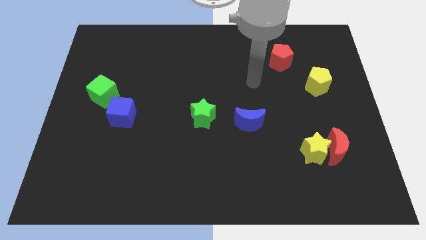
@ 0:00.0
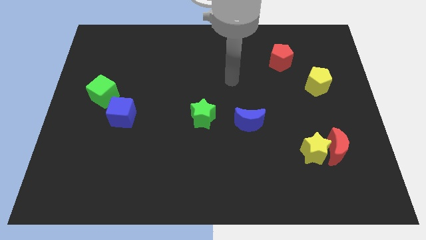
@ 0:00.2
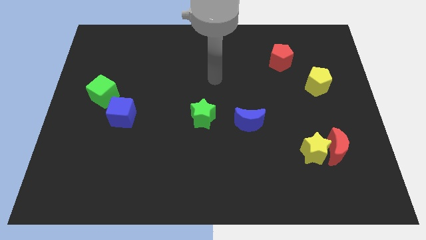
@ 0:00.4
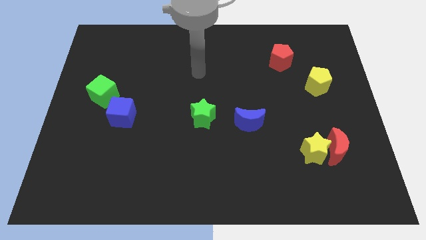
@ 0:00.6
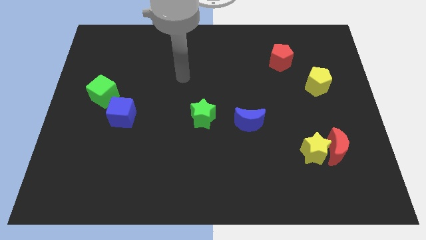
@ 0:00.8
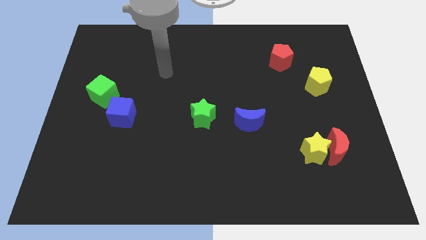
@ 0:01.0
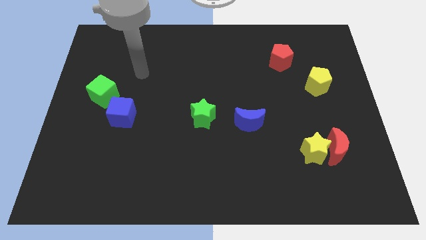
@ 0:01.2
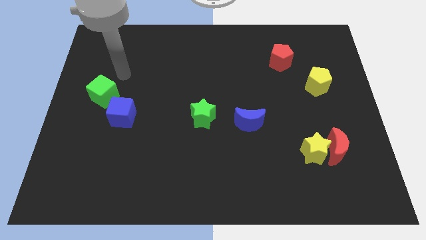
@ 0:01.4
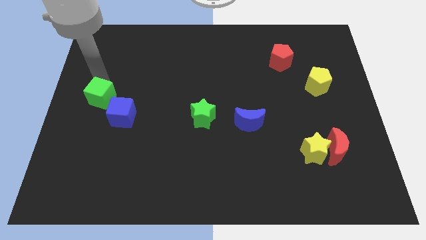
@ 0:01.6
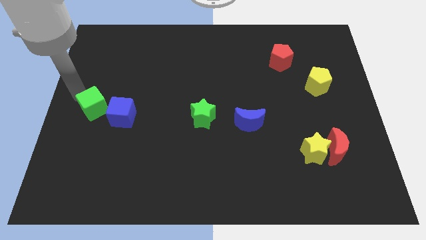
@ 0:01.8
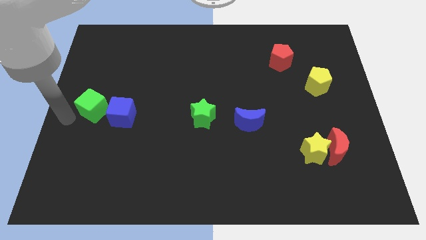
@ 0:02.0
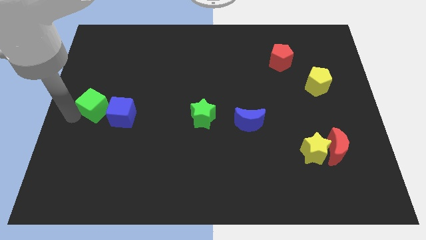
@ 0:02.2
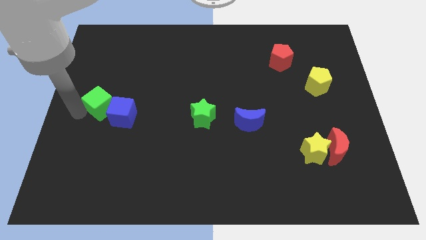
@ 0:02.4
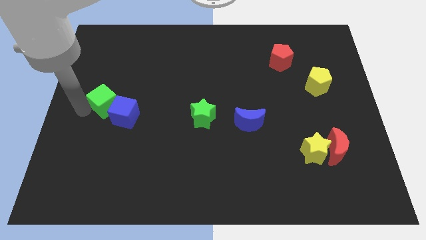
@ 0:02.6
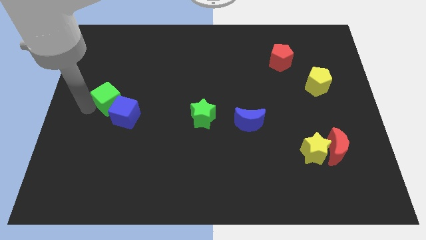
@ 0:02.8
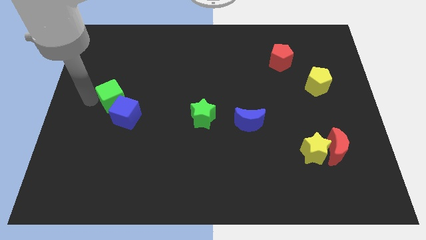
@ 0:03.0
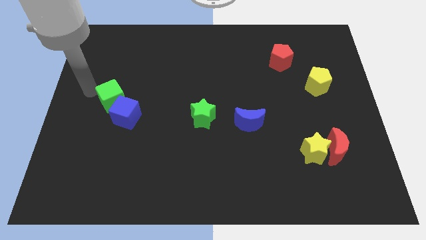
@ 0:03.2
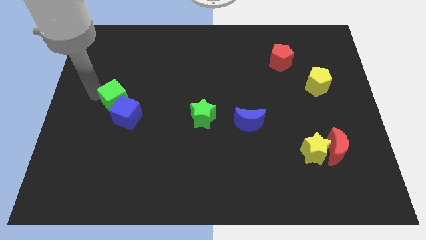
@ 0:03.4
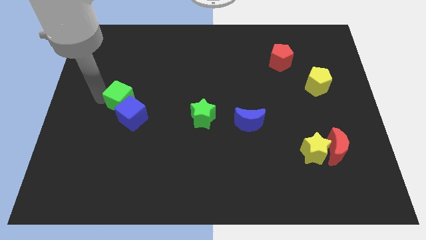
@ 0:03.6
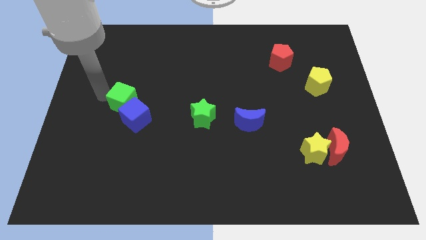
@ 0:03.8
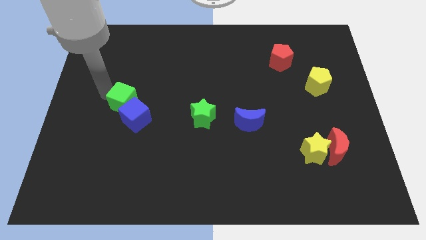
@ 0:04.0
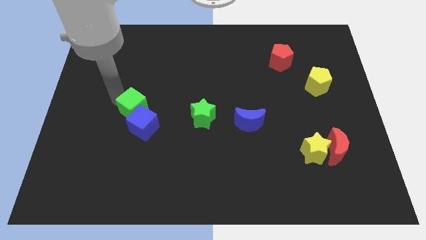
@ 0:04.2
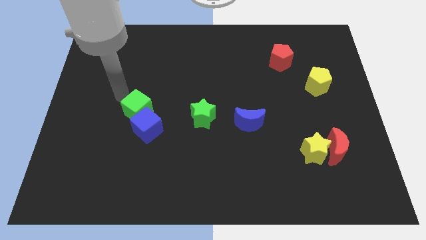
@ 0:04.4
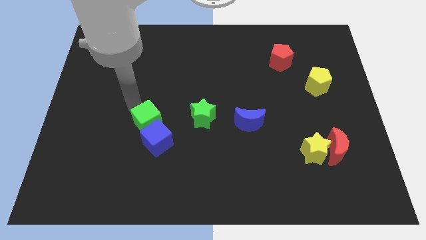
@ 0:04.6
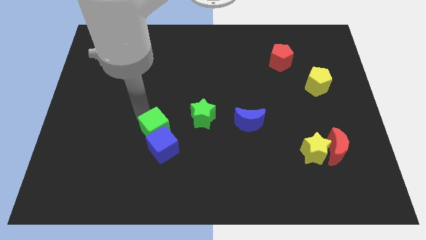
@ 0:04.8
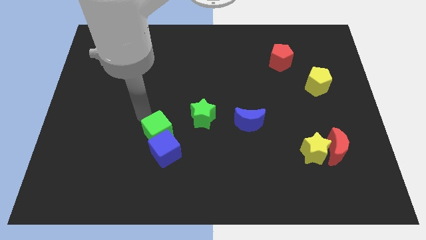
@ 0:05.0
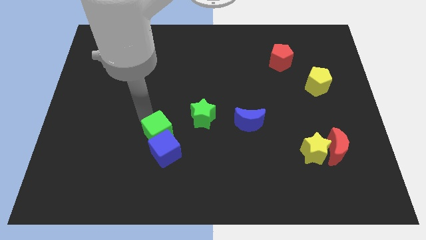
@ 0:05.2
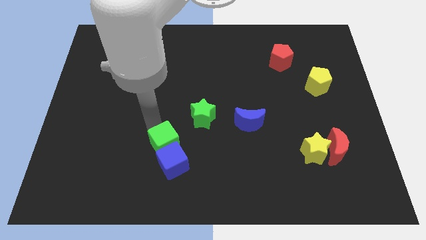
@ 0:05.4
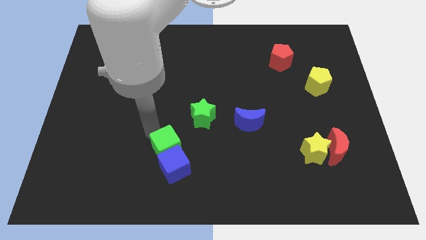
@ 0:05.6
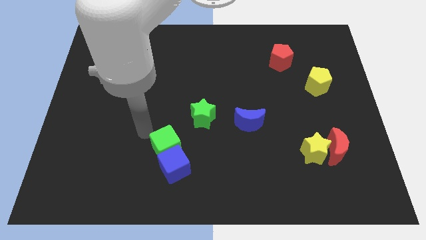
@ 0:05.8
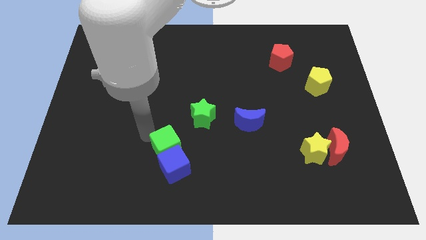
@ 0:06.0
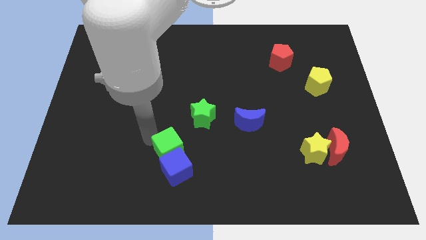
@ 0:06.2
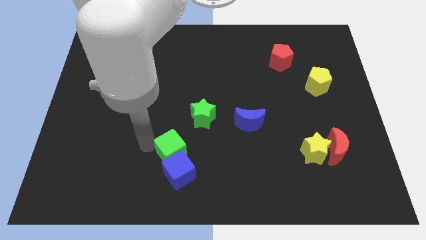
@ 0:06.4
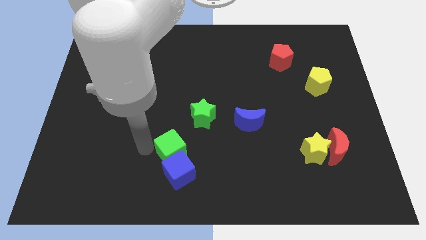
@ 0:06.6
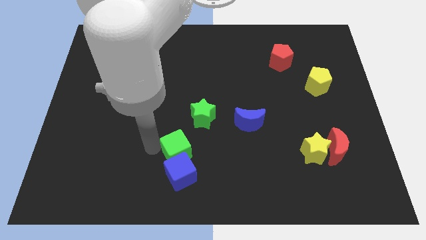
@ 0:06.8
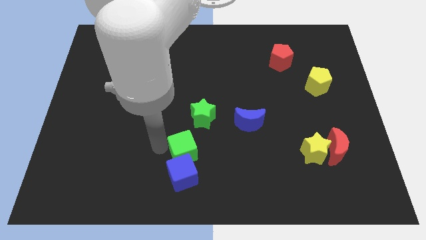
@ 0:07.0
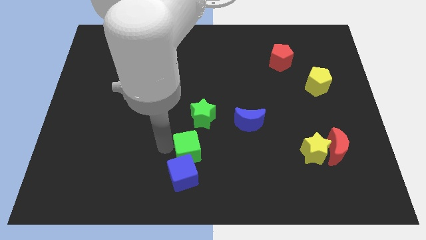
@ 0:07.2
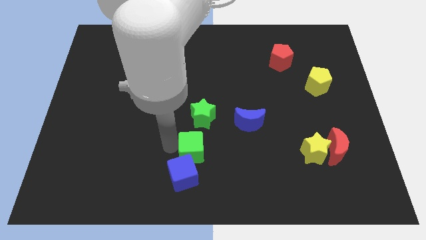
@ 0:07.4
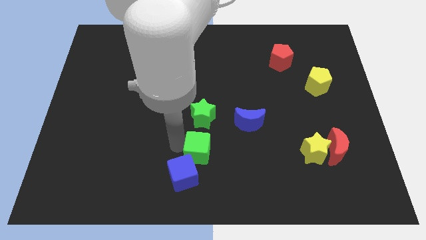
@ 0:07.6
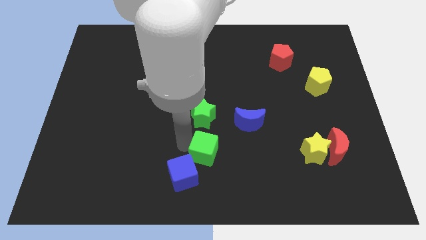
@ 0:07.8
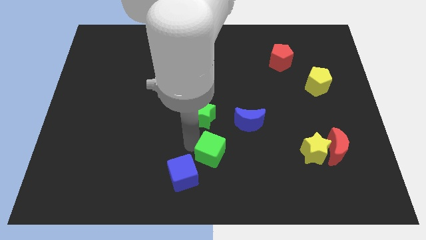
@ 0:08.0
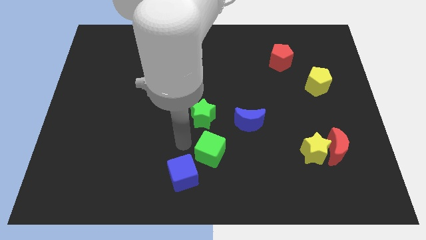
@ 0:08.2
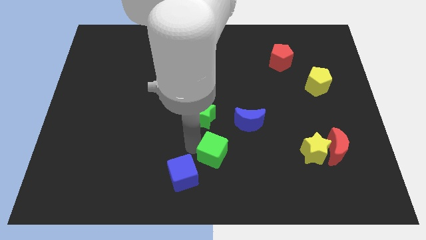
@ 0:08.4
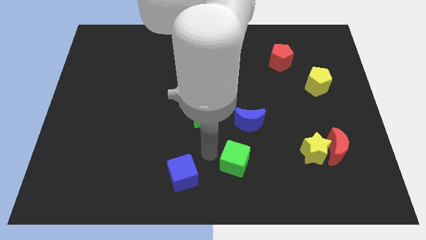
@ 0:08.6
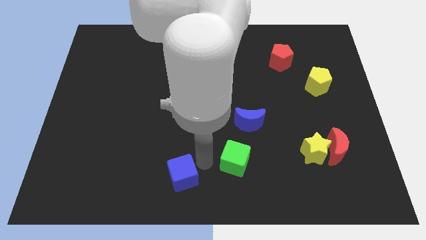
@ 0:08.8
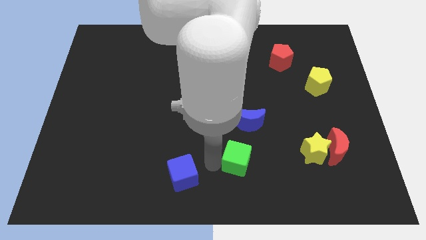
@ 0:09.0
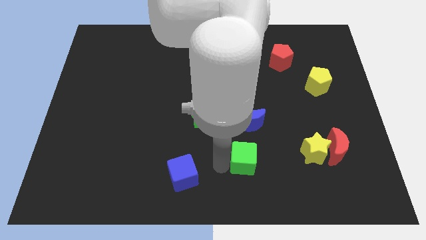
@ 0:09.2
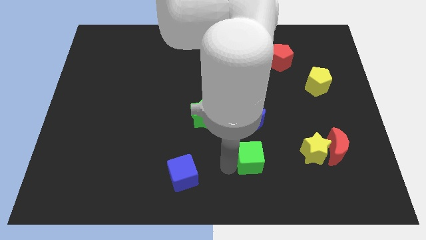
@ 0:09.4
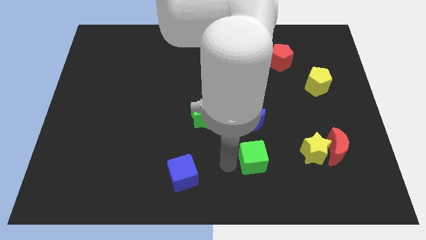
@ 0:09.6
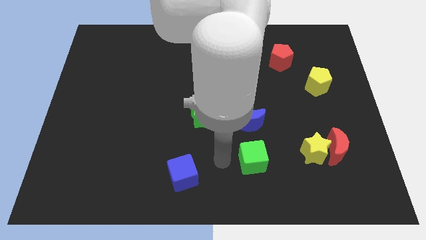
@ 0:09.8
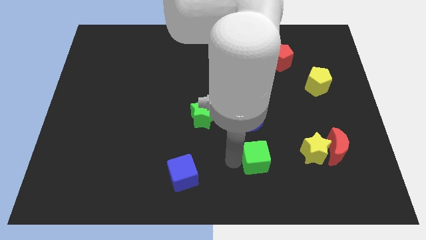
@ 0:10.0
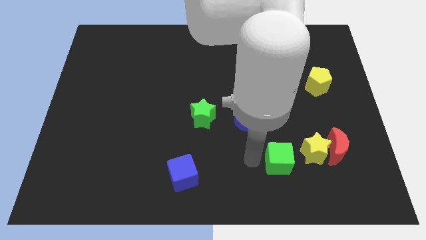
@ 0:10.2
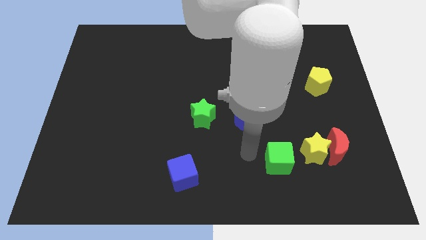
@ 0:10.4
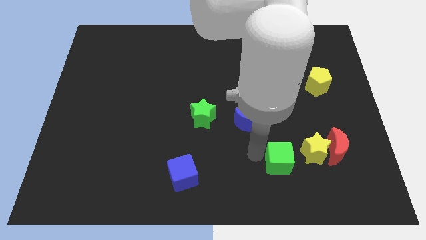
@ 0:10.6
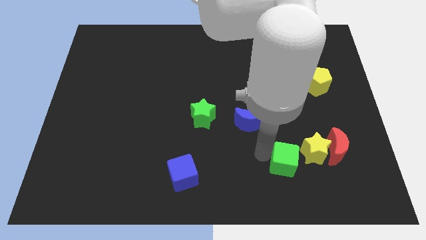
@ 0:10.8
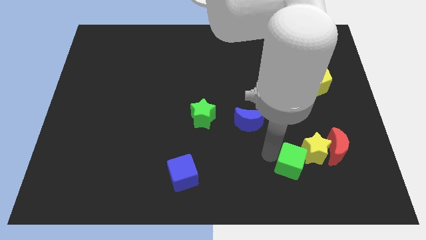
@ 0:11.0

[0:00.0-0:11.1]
put the green cube next to the yellow star

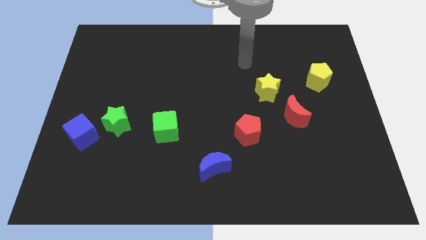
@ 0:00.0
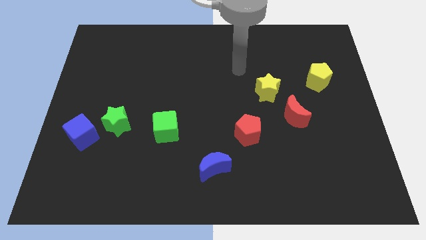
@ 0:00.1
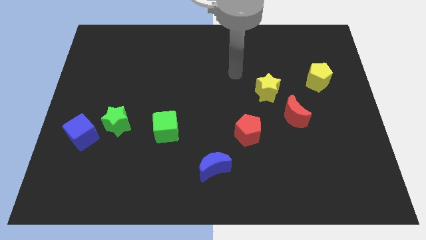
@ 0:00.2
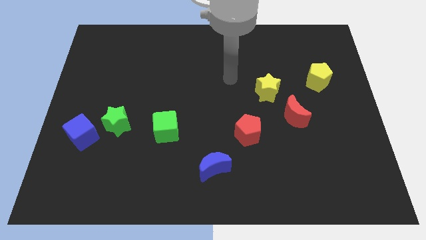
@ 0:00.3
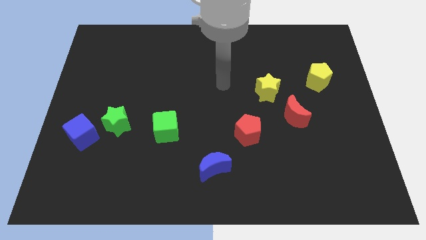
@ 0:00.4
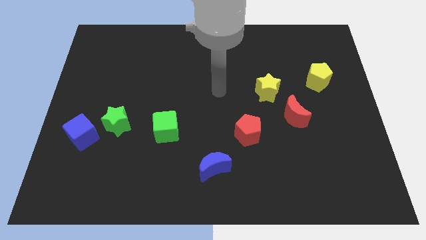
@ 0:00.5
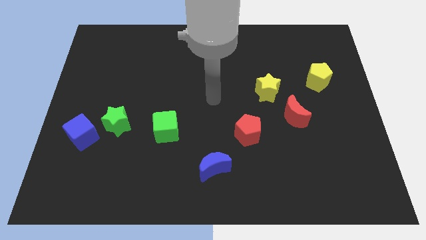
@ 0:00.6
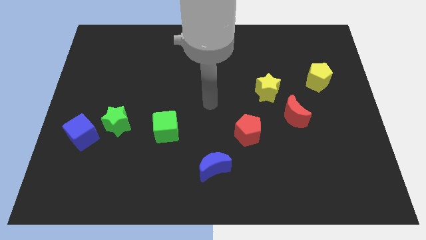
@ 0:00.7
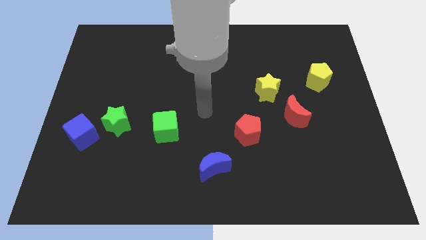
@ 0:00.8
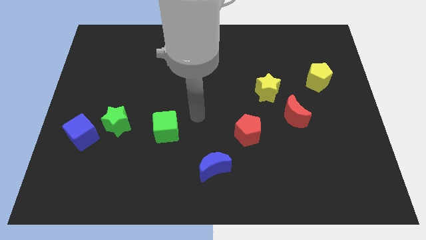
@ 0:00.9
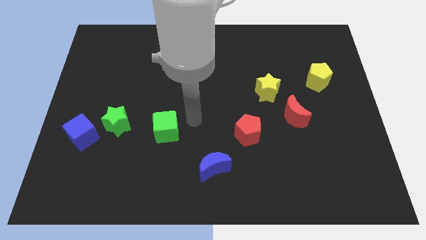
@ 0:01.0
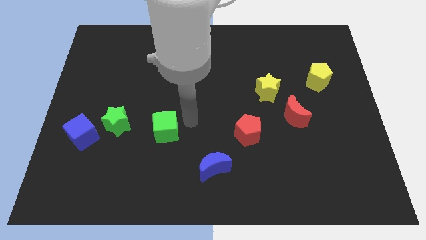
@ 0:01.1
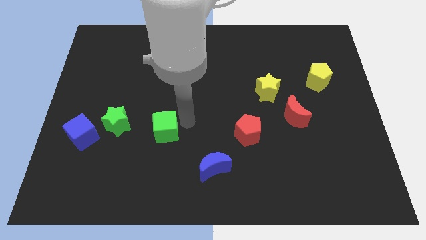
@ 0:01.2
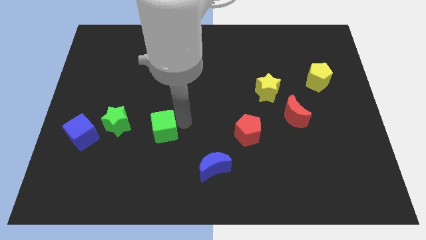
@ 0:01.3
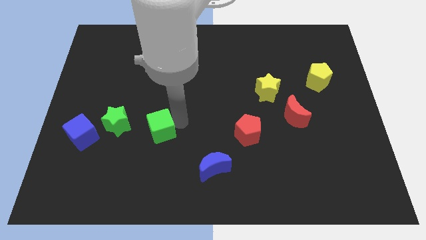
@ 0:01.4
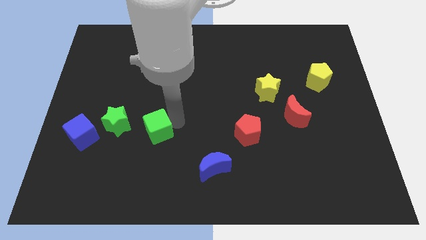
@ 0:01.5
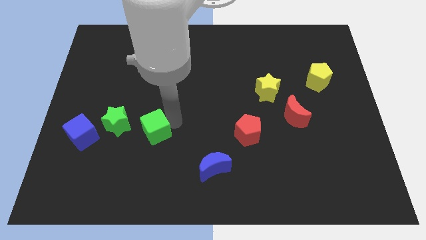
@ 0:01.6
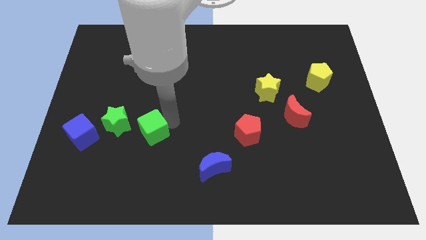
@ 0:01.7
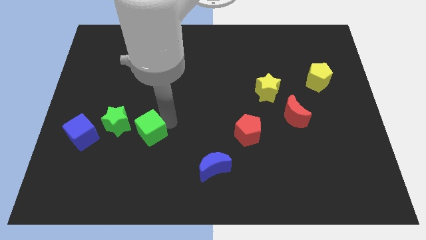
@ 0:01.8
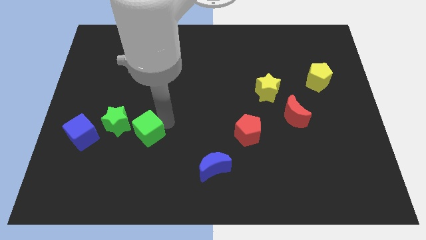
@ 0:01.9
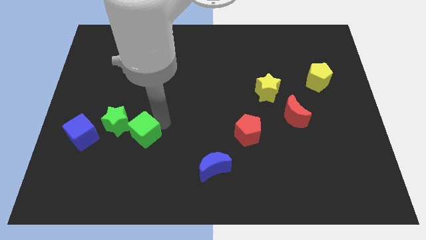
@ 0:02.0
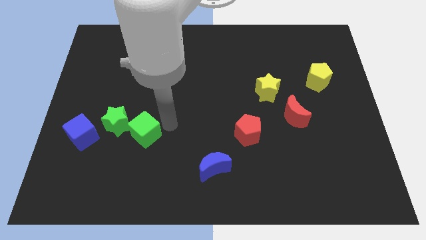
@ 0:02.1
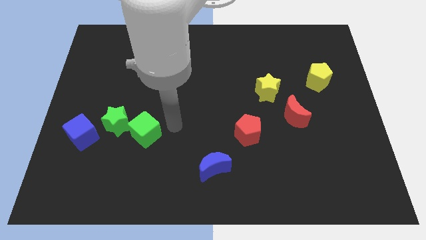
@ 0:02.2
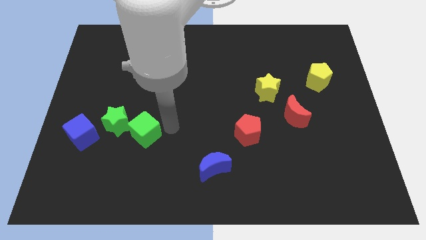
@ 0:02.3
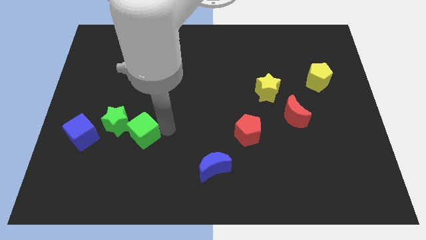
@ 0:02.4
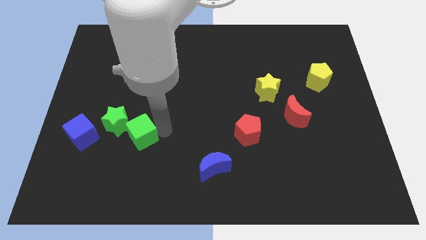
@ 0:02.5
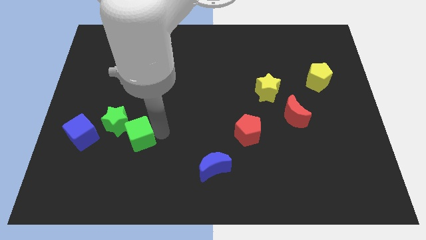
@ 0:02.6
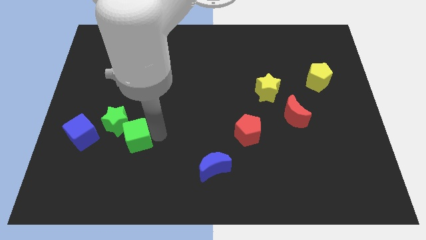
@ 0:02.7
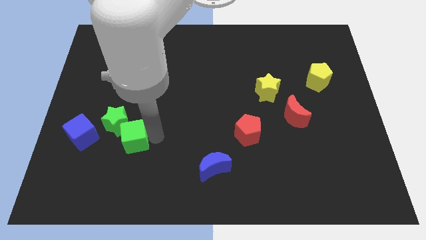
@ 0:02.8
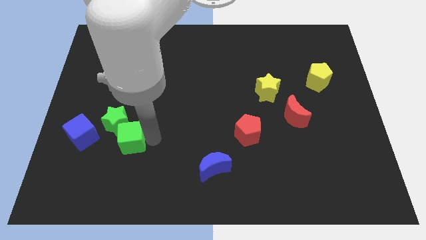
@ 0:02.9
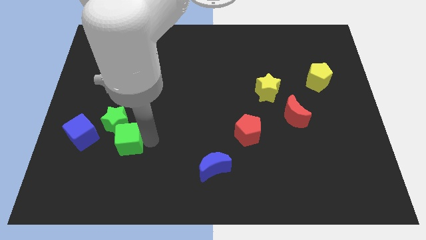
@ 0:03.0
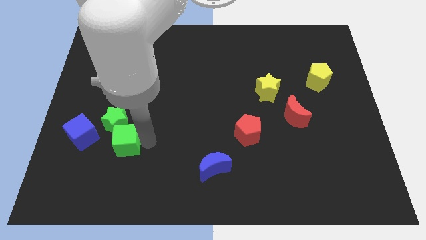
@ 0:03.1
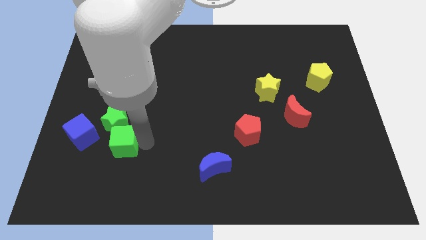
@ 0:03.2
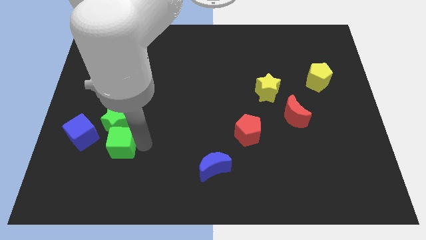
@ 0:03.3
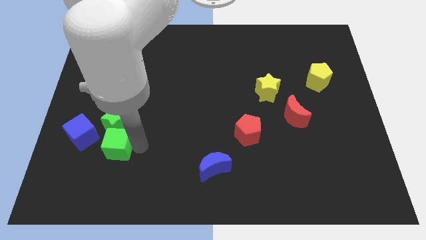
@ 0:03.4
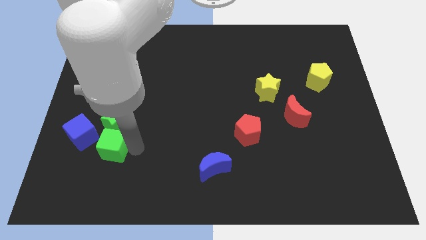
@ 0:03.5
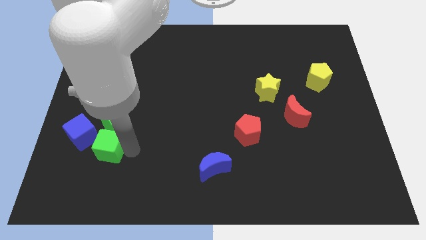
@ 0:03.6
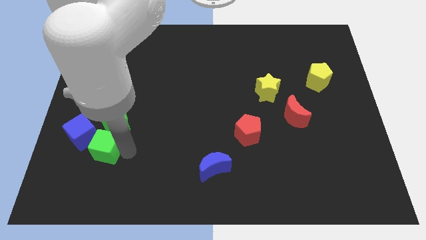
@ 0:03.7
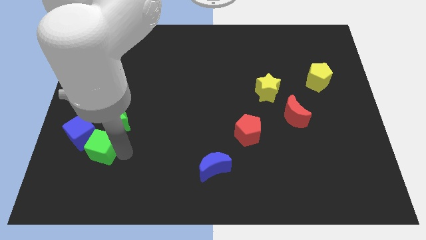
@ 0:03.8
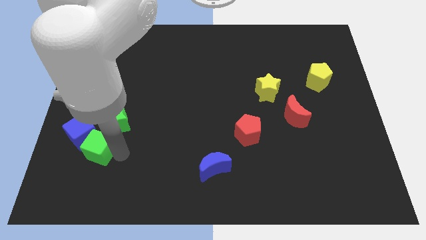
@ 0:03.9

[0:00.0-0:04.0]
move the green cube to the blue cube
